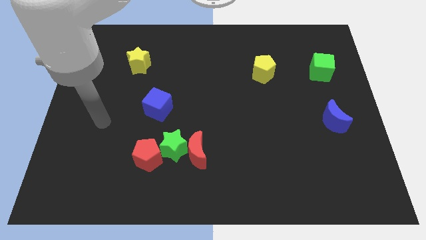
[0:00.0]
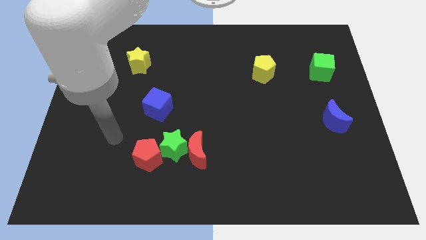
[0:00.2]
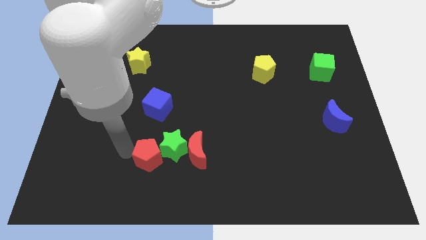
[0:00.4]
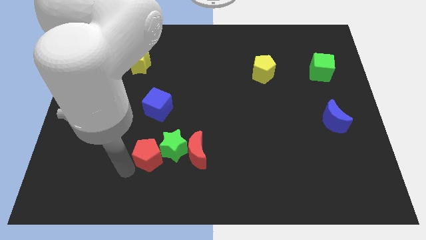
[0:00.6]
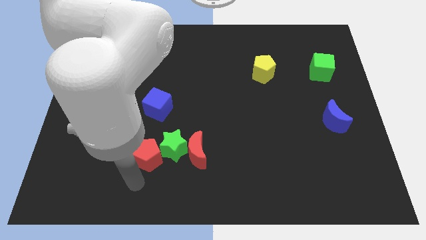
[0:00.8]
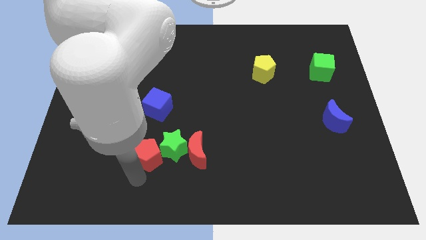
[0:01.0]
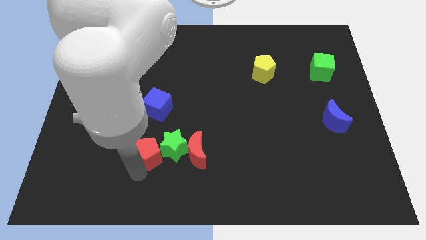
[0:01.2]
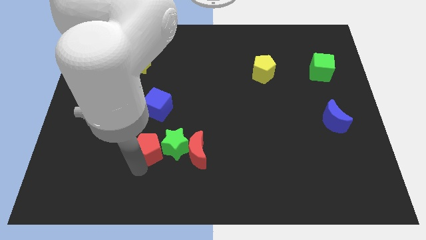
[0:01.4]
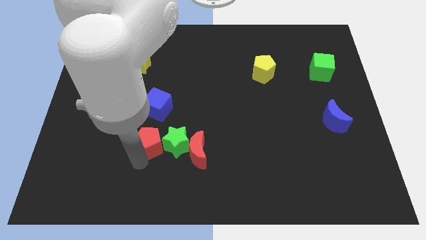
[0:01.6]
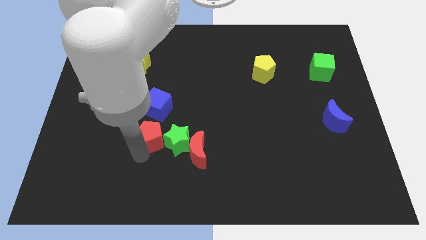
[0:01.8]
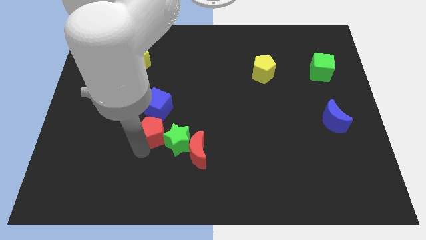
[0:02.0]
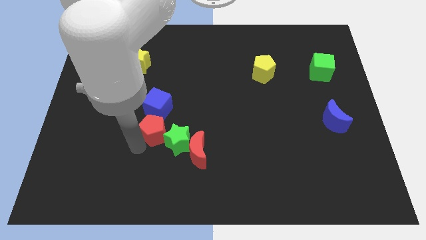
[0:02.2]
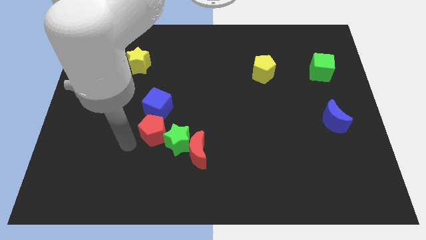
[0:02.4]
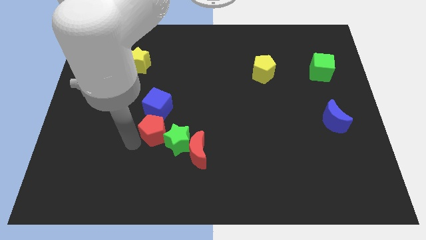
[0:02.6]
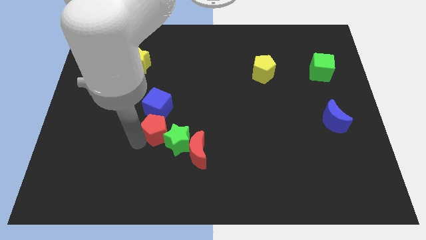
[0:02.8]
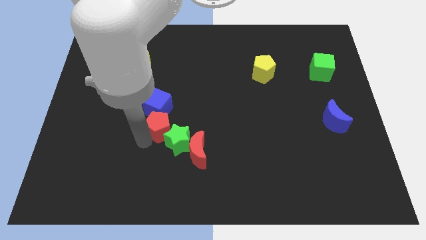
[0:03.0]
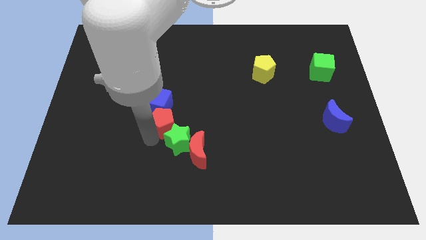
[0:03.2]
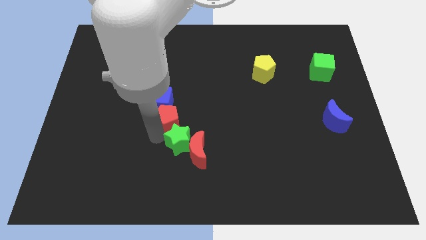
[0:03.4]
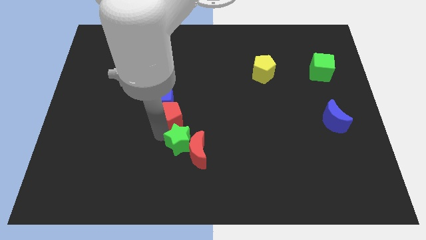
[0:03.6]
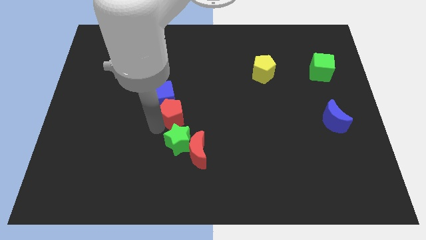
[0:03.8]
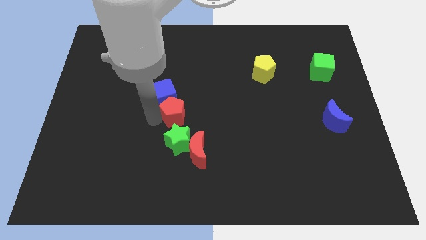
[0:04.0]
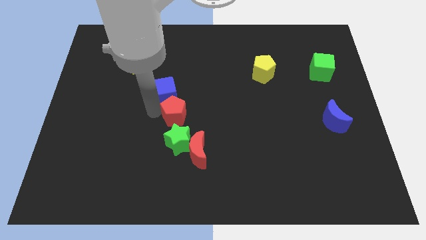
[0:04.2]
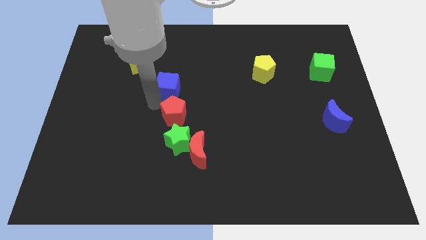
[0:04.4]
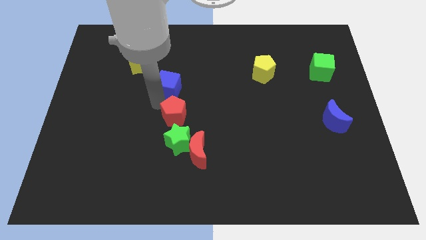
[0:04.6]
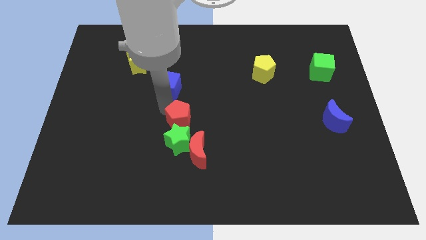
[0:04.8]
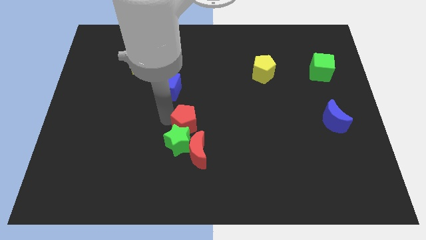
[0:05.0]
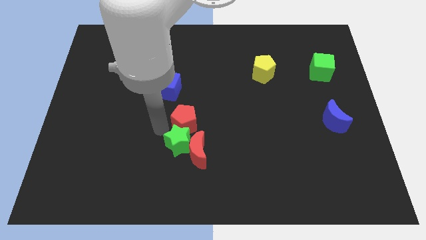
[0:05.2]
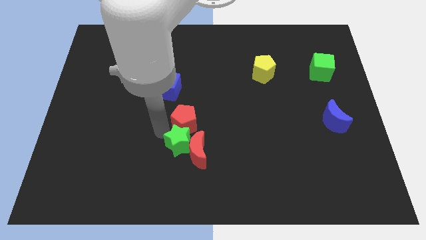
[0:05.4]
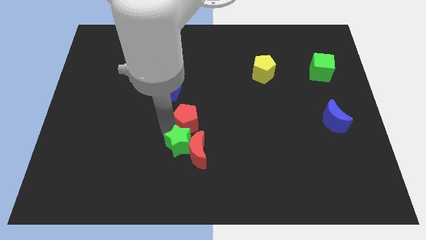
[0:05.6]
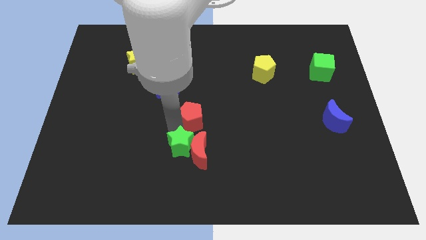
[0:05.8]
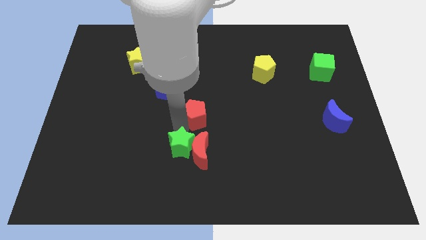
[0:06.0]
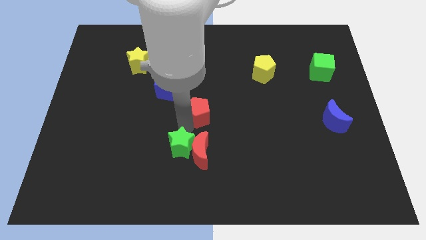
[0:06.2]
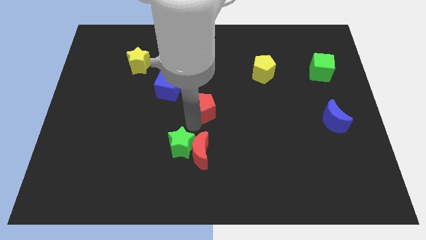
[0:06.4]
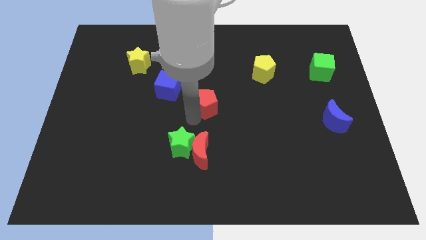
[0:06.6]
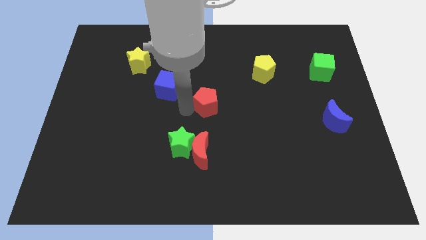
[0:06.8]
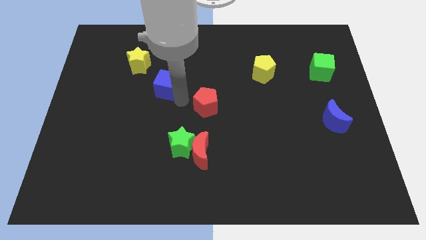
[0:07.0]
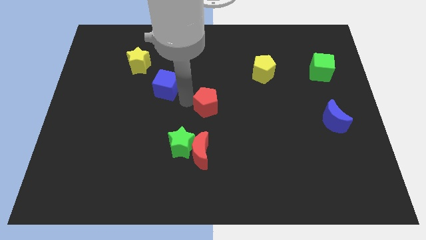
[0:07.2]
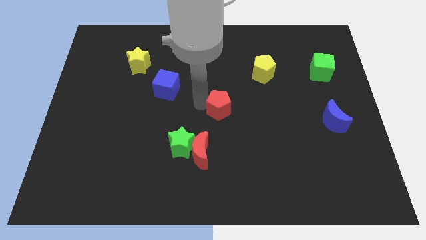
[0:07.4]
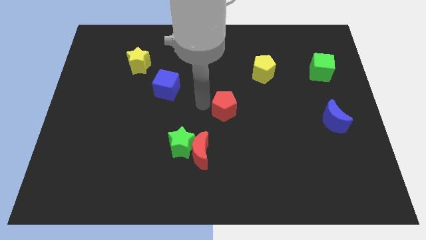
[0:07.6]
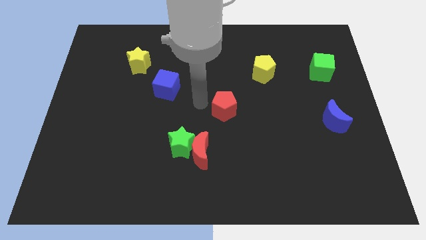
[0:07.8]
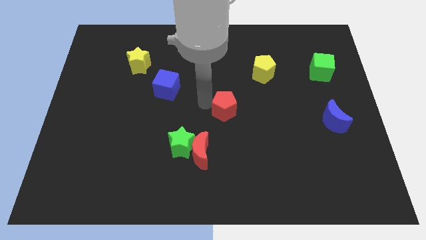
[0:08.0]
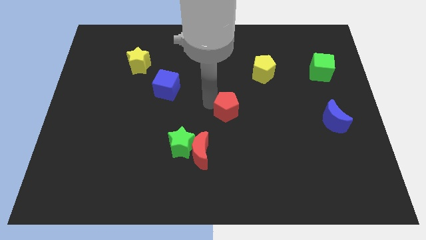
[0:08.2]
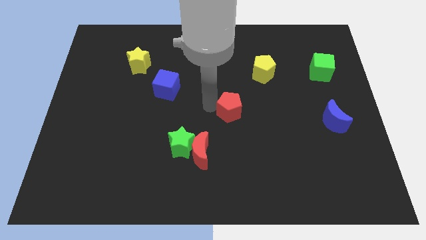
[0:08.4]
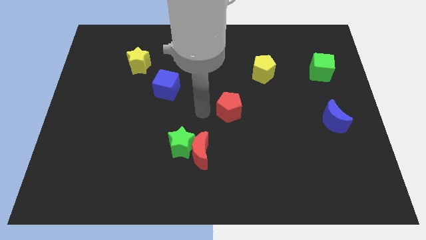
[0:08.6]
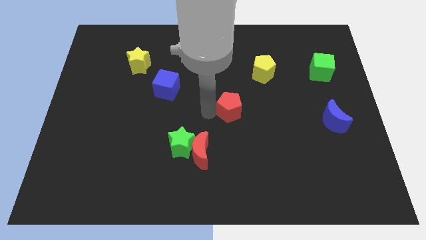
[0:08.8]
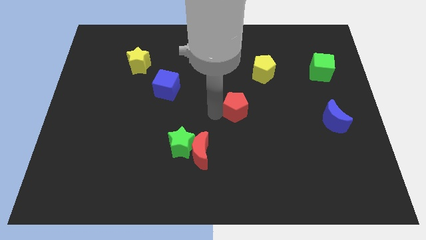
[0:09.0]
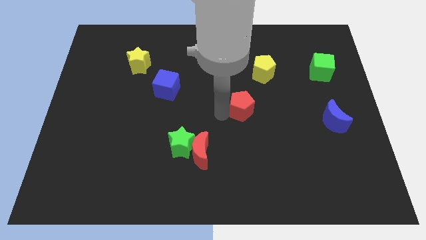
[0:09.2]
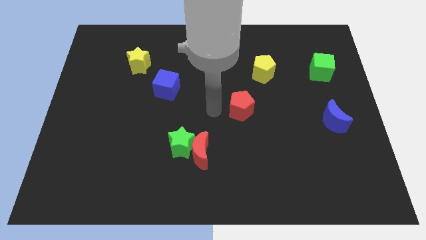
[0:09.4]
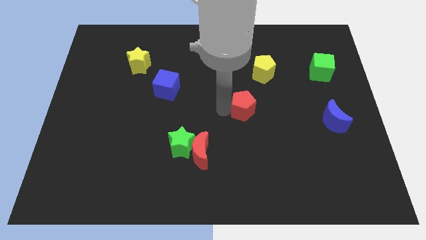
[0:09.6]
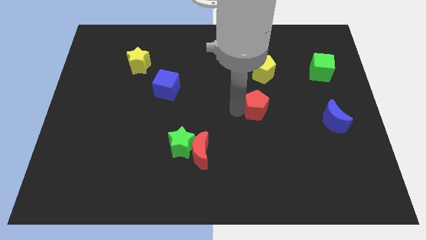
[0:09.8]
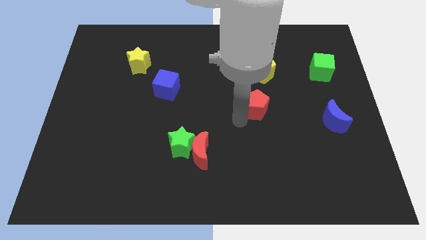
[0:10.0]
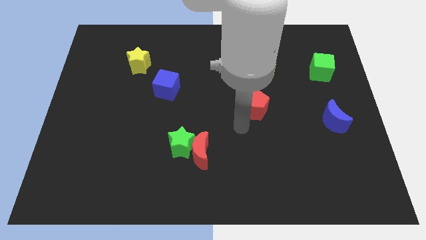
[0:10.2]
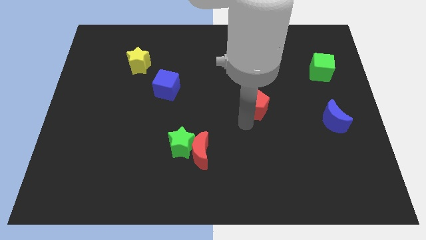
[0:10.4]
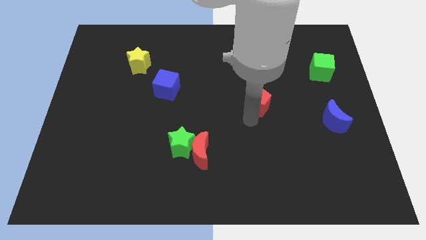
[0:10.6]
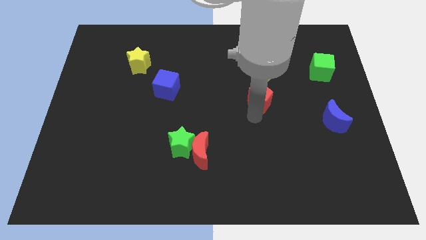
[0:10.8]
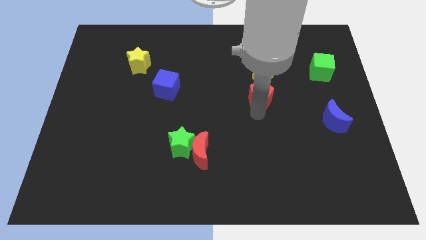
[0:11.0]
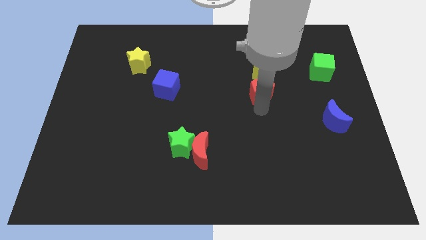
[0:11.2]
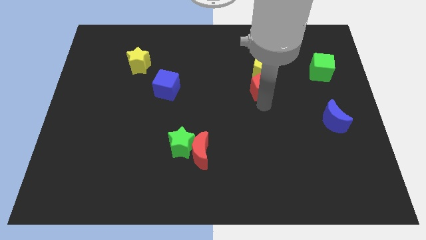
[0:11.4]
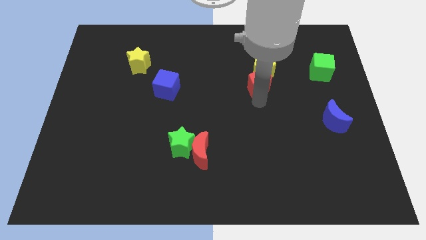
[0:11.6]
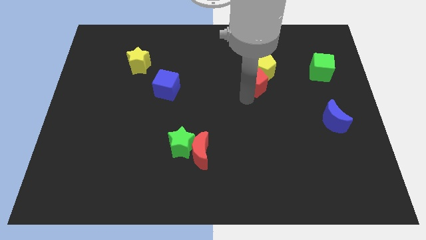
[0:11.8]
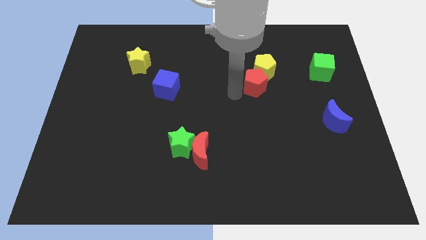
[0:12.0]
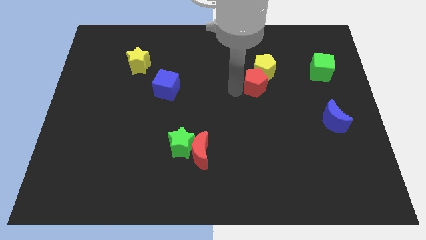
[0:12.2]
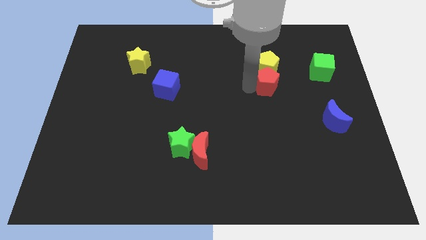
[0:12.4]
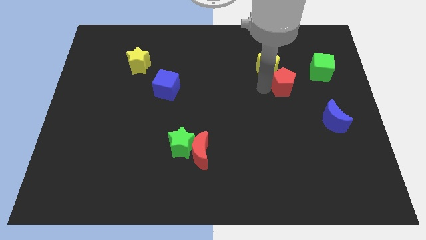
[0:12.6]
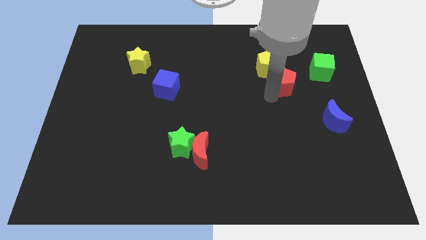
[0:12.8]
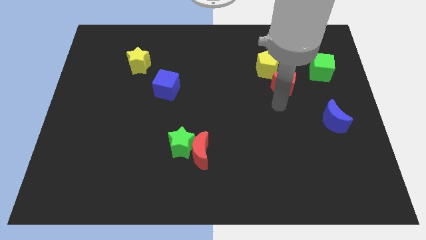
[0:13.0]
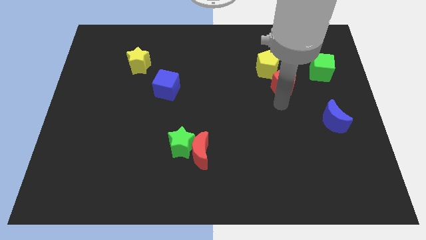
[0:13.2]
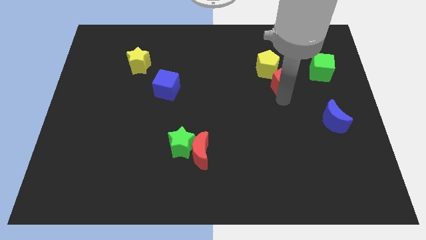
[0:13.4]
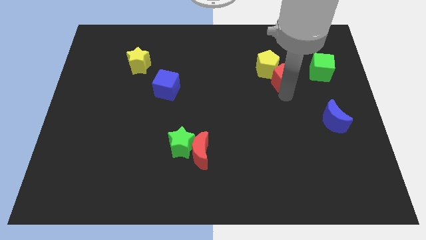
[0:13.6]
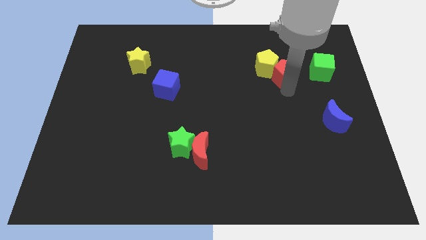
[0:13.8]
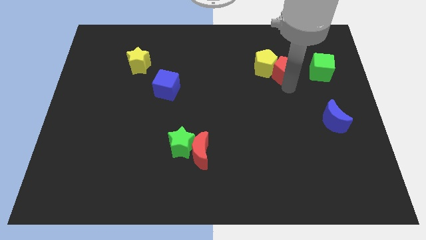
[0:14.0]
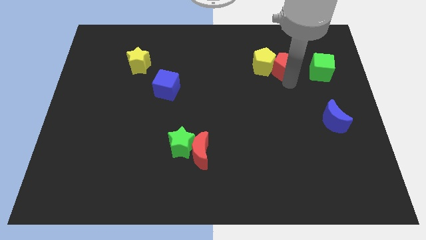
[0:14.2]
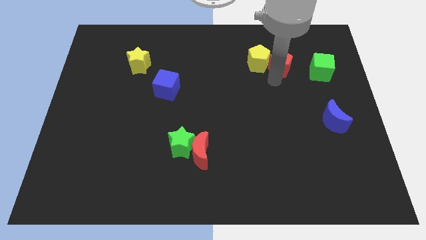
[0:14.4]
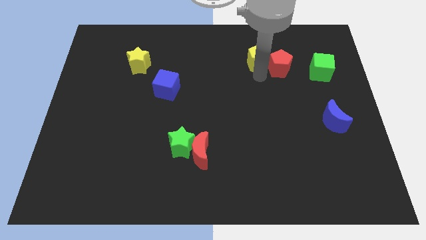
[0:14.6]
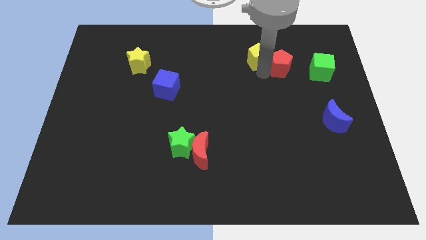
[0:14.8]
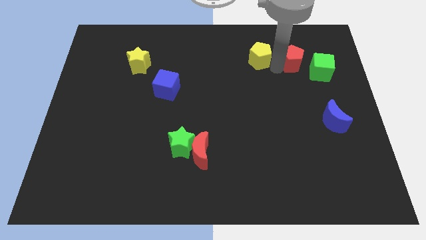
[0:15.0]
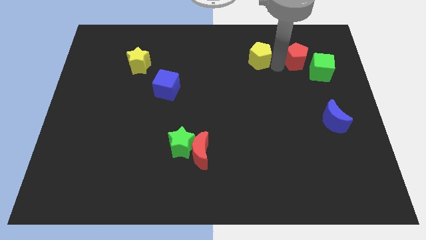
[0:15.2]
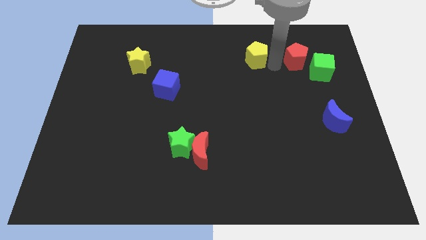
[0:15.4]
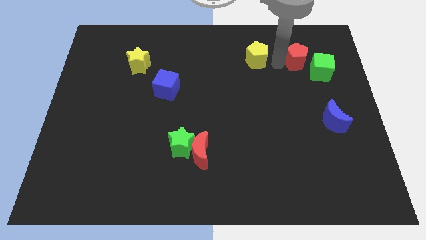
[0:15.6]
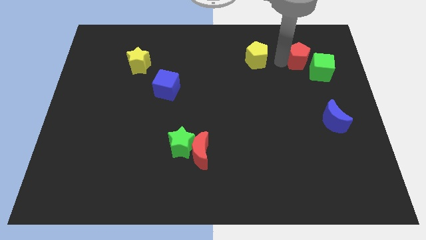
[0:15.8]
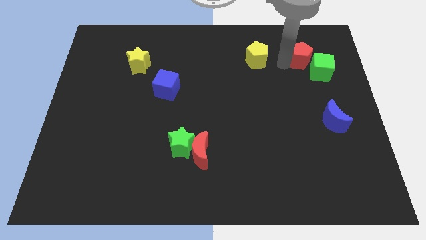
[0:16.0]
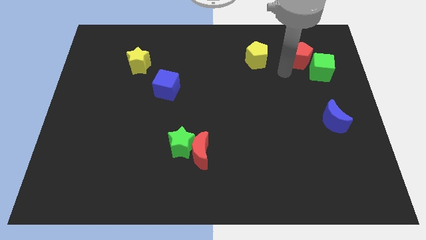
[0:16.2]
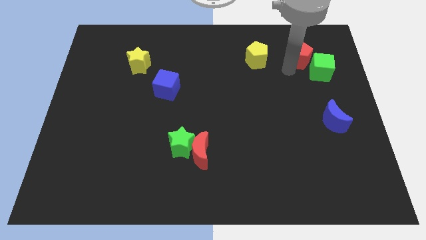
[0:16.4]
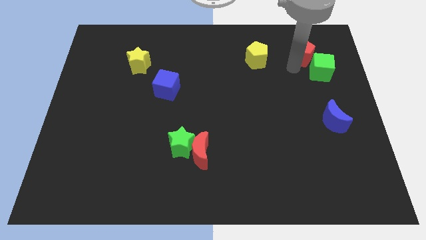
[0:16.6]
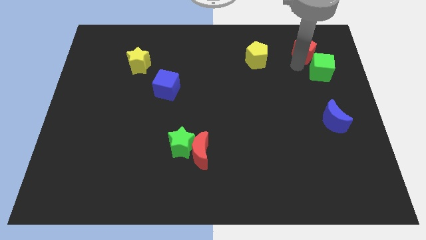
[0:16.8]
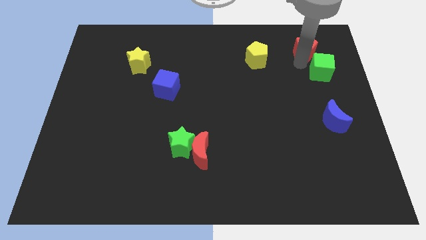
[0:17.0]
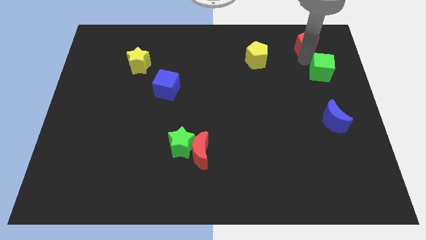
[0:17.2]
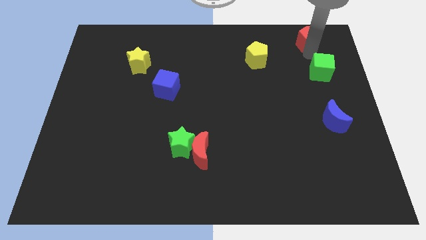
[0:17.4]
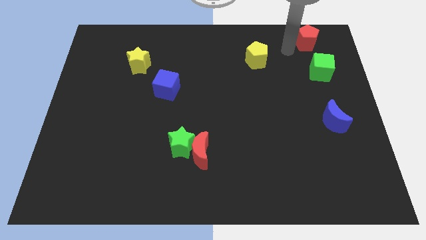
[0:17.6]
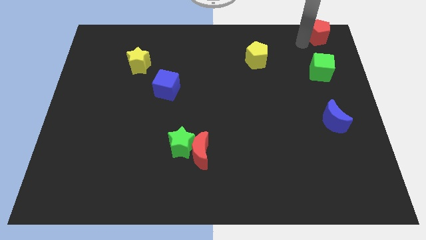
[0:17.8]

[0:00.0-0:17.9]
move the red pentagon to the top right
